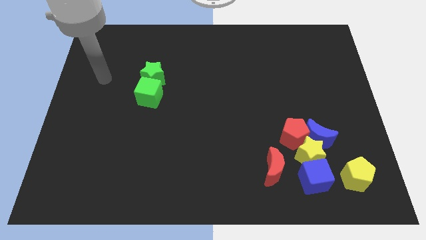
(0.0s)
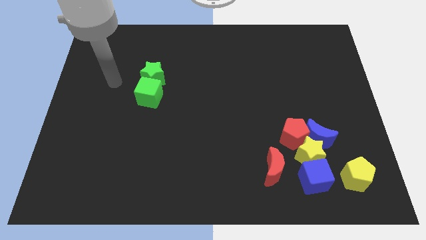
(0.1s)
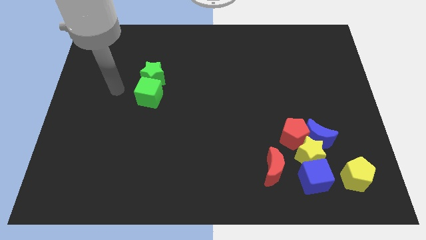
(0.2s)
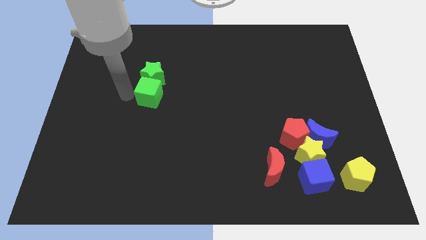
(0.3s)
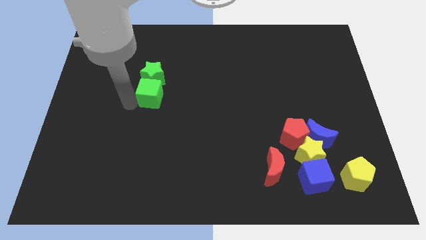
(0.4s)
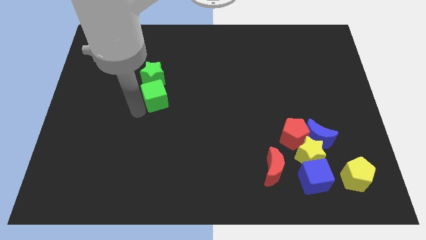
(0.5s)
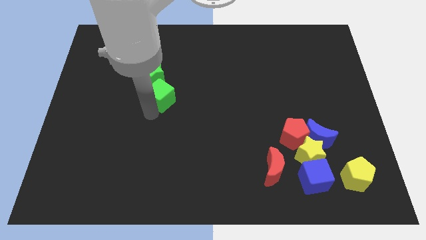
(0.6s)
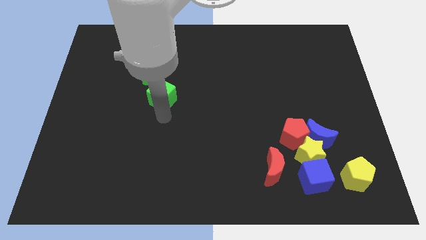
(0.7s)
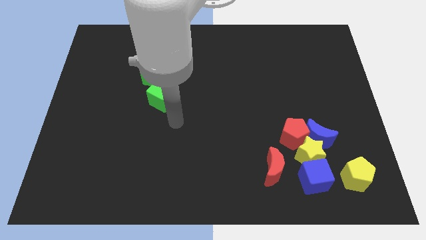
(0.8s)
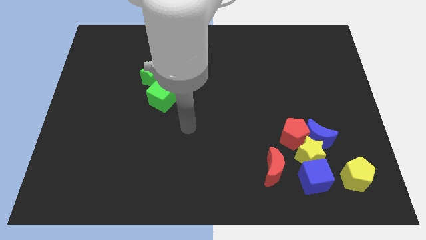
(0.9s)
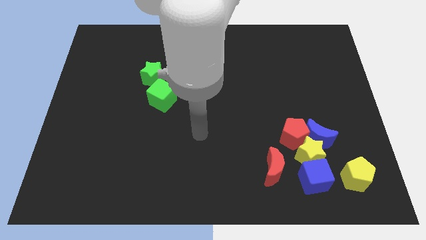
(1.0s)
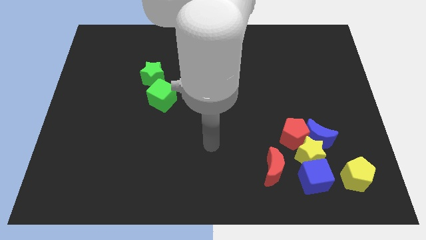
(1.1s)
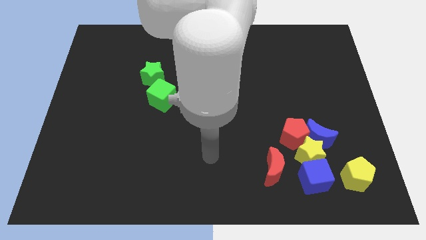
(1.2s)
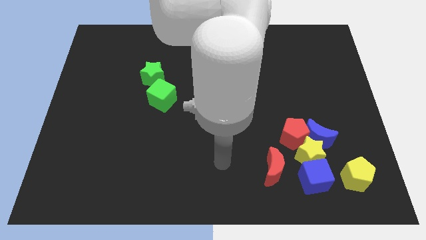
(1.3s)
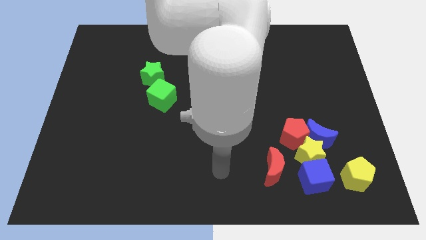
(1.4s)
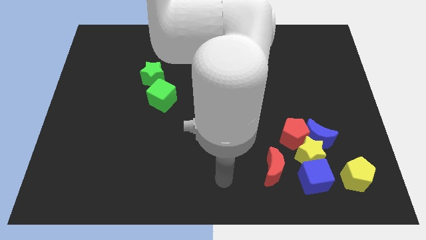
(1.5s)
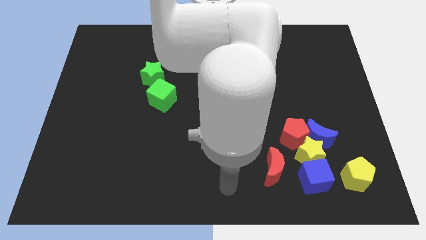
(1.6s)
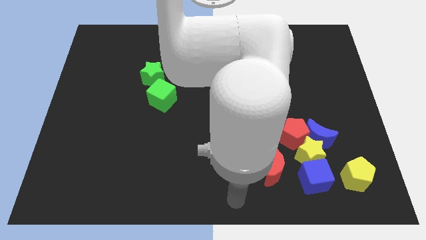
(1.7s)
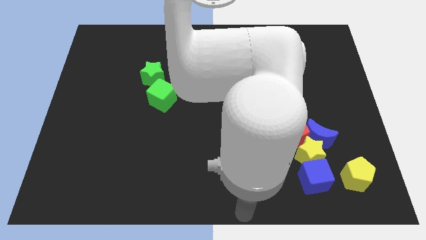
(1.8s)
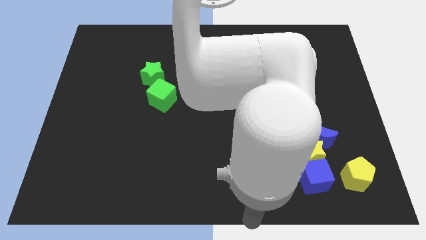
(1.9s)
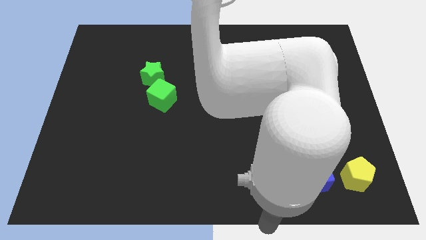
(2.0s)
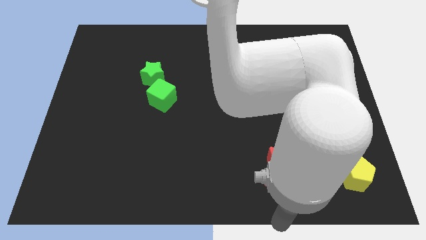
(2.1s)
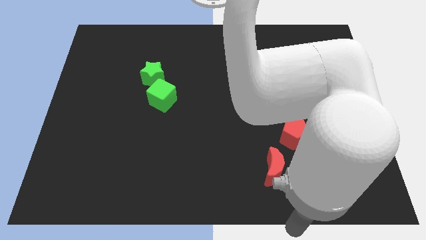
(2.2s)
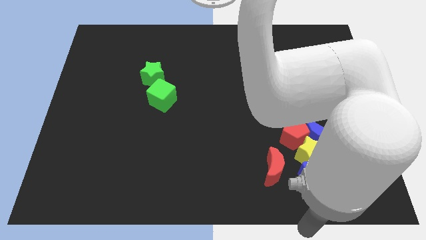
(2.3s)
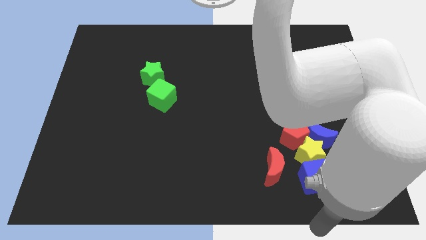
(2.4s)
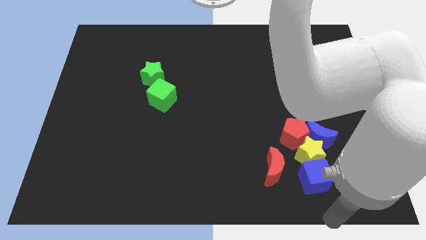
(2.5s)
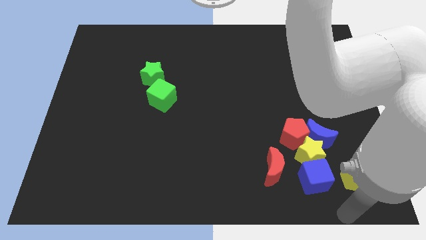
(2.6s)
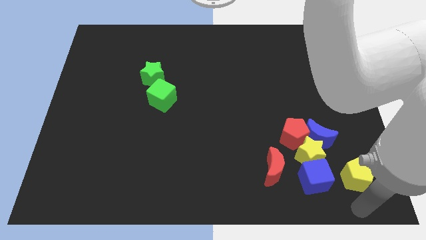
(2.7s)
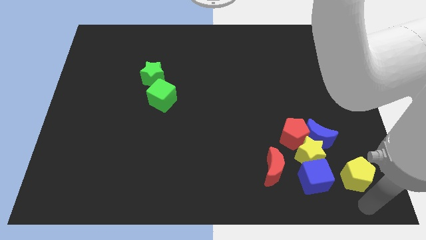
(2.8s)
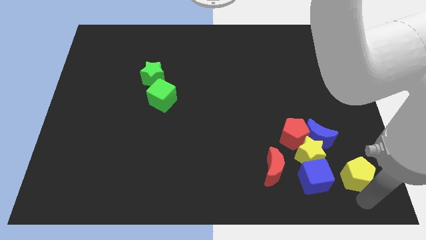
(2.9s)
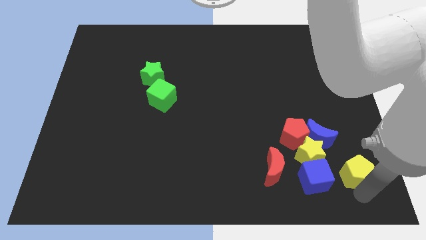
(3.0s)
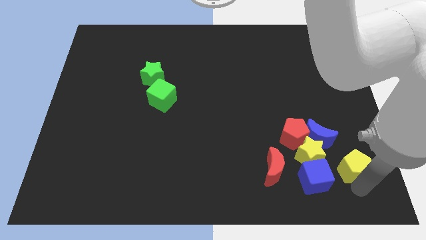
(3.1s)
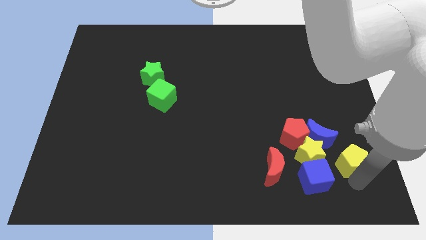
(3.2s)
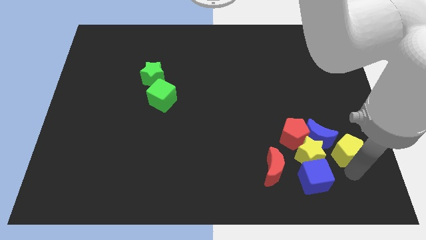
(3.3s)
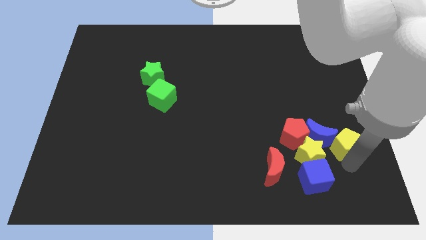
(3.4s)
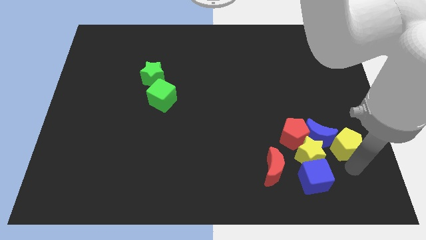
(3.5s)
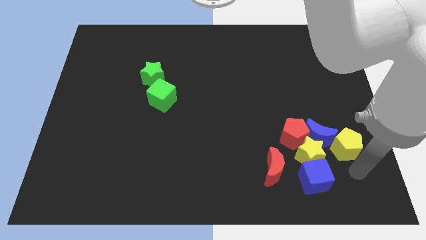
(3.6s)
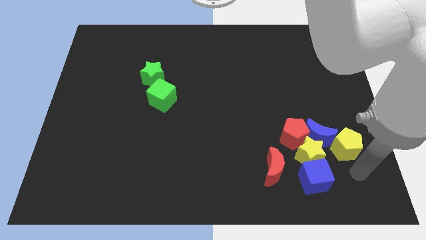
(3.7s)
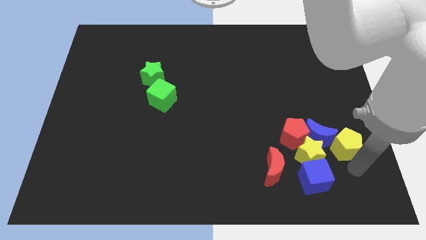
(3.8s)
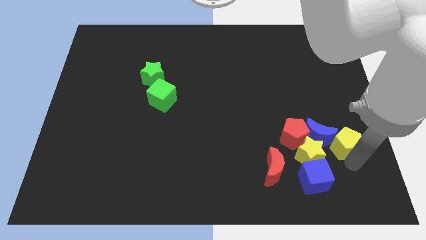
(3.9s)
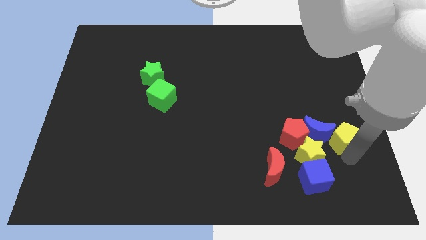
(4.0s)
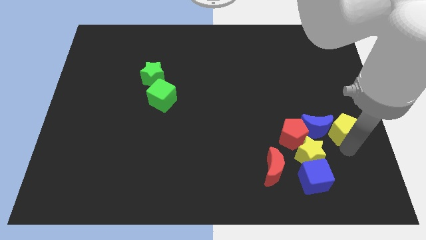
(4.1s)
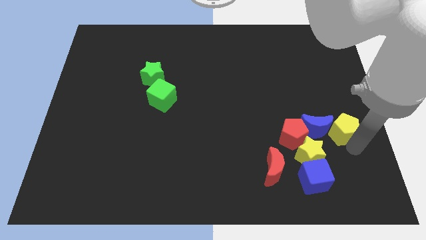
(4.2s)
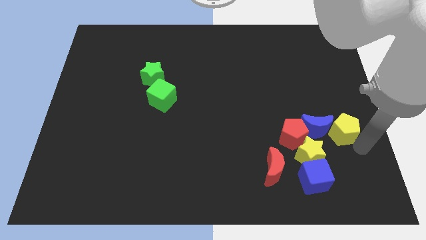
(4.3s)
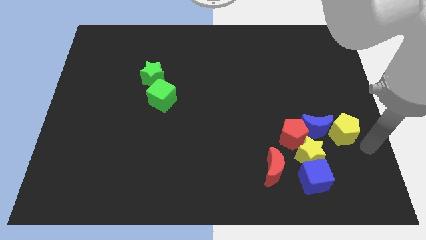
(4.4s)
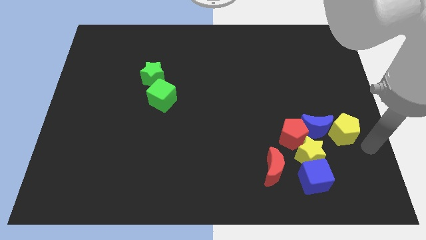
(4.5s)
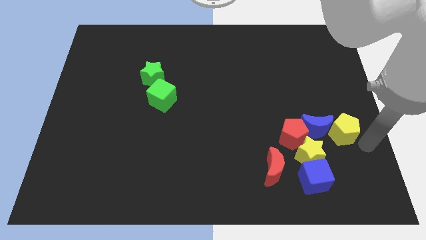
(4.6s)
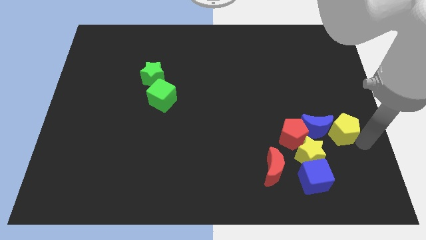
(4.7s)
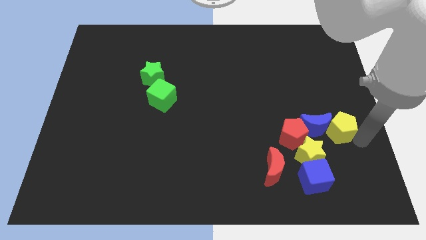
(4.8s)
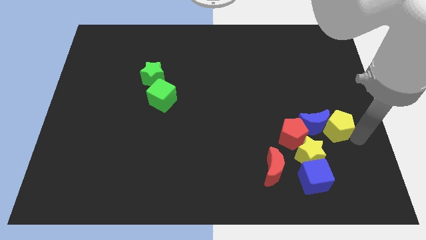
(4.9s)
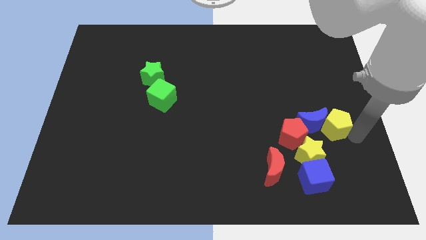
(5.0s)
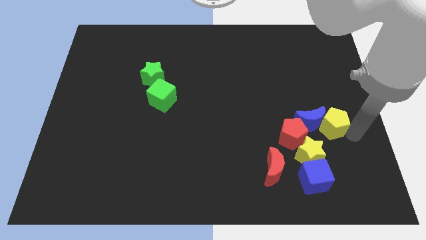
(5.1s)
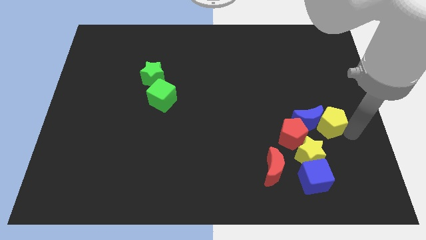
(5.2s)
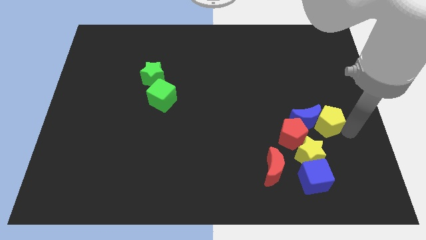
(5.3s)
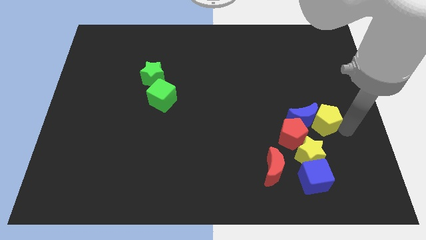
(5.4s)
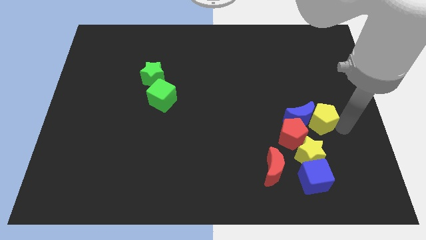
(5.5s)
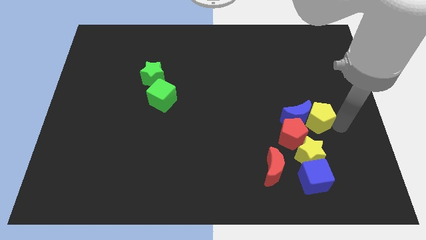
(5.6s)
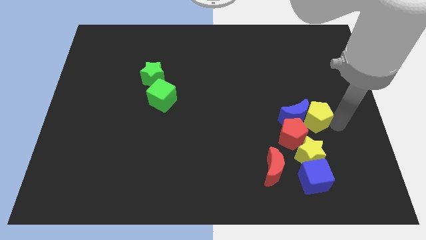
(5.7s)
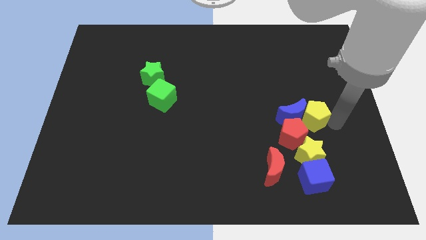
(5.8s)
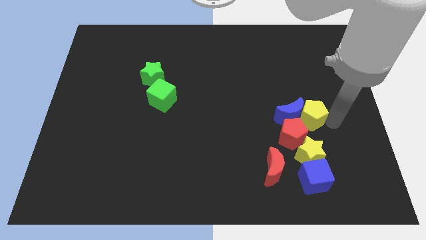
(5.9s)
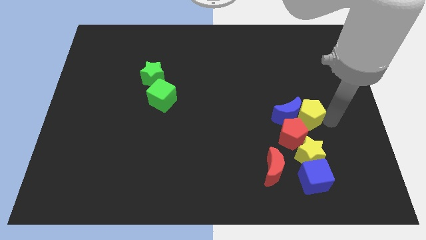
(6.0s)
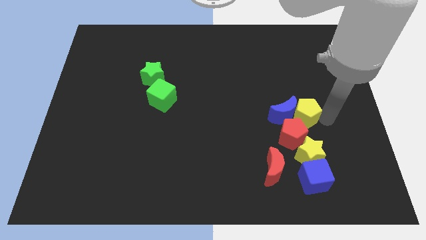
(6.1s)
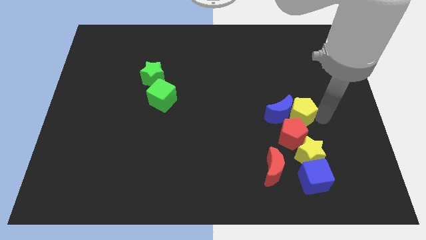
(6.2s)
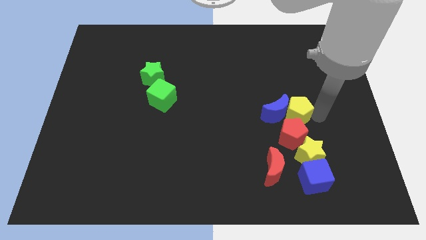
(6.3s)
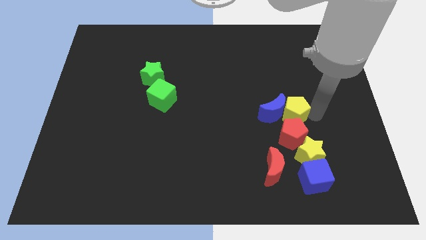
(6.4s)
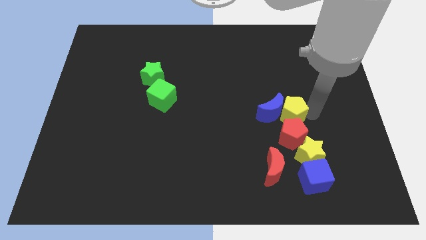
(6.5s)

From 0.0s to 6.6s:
push the yellow pentagon to the top left side of the red pentagon

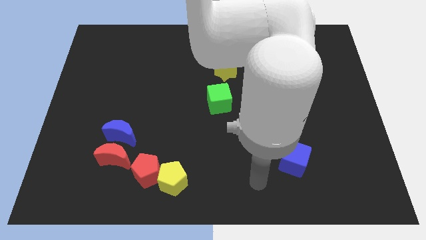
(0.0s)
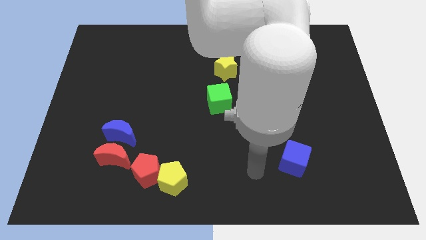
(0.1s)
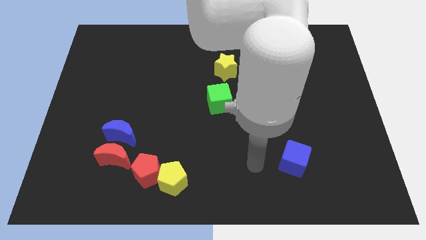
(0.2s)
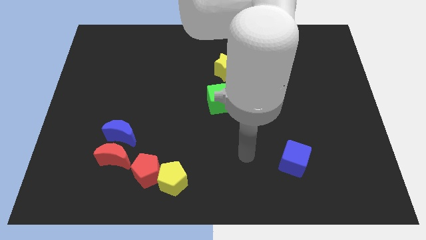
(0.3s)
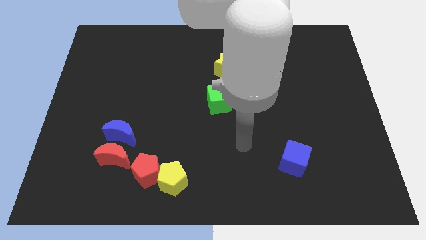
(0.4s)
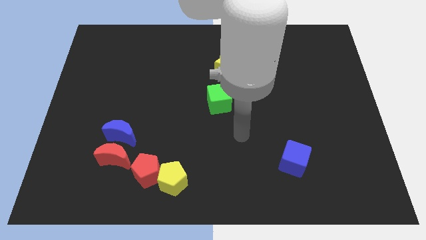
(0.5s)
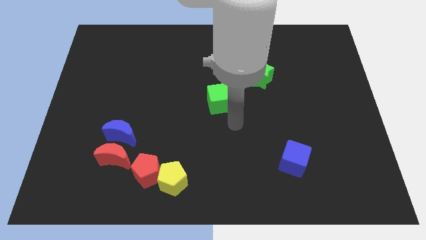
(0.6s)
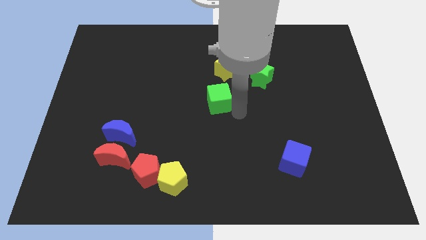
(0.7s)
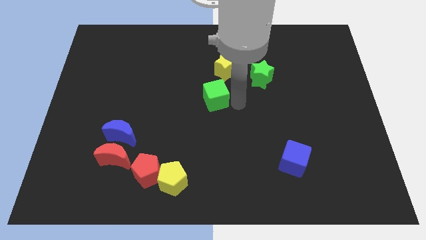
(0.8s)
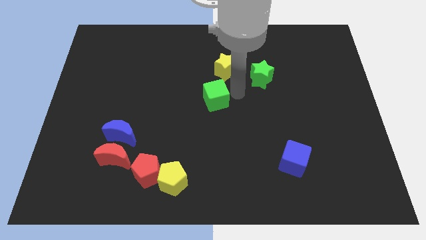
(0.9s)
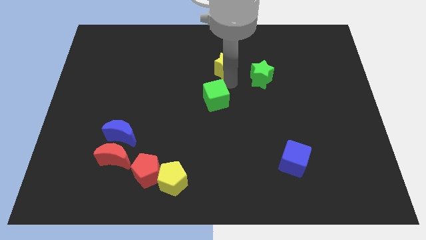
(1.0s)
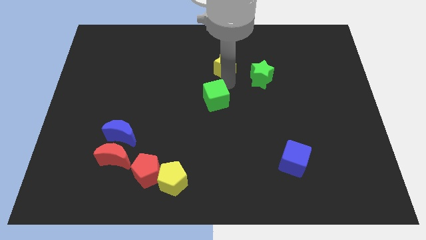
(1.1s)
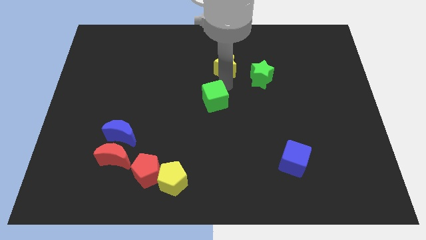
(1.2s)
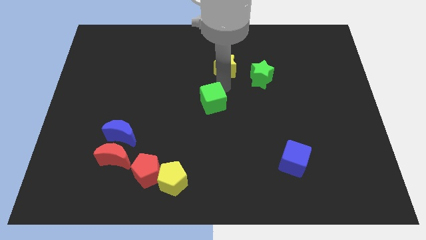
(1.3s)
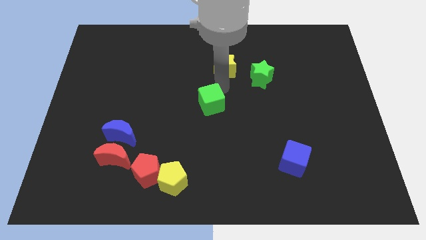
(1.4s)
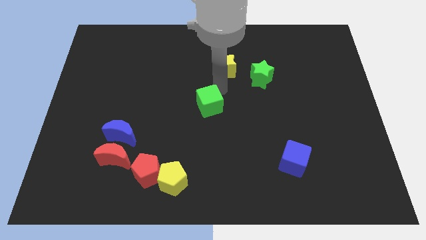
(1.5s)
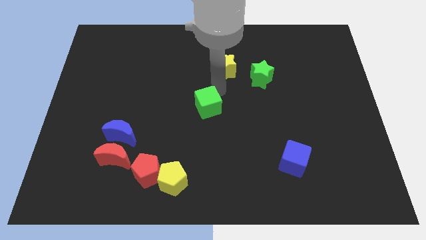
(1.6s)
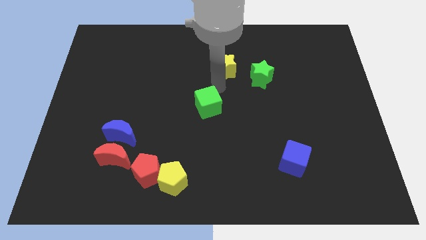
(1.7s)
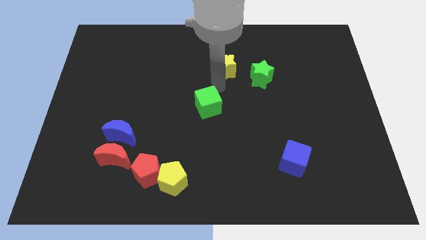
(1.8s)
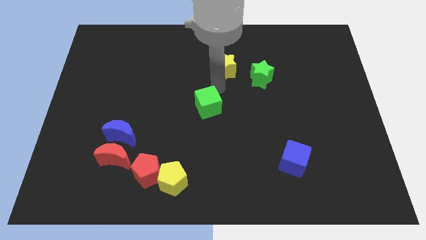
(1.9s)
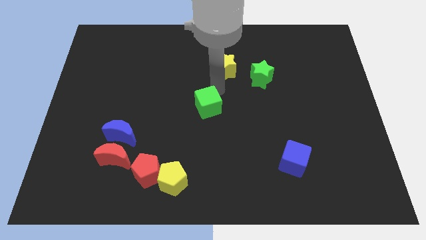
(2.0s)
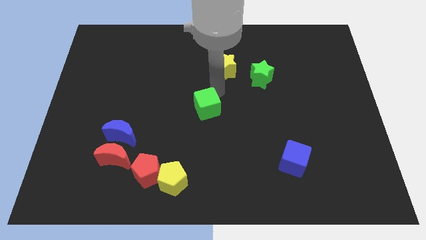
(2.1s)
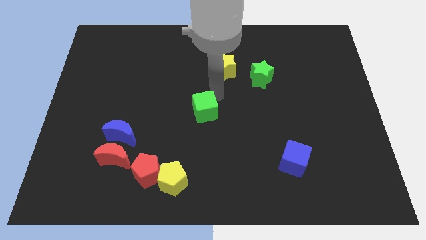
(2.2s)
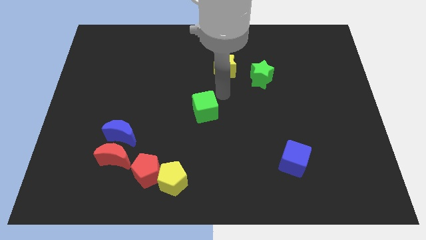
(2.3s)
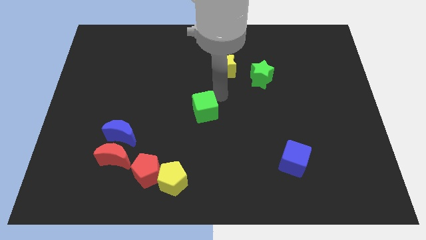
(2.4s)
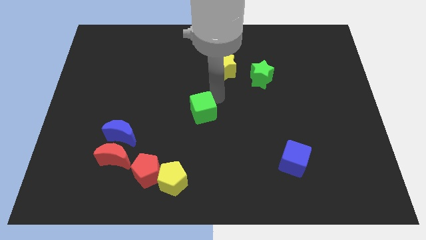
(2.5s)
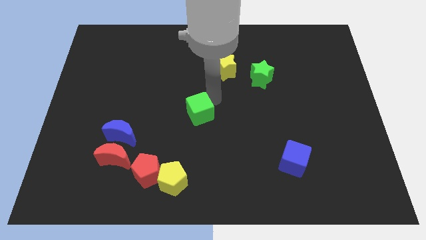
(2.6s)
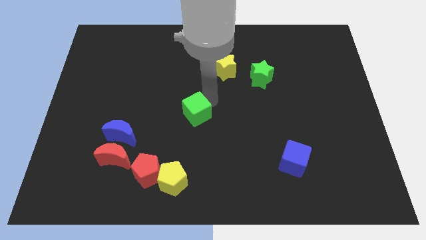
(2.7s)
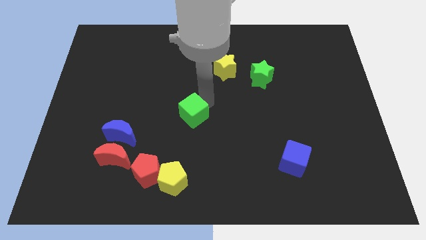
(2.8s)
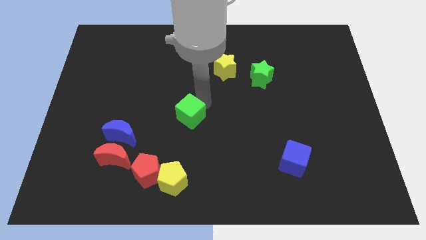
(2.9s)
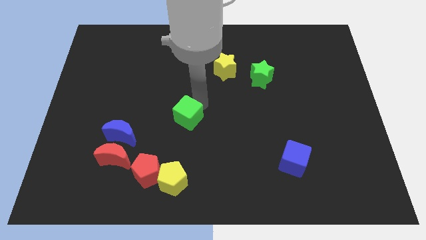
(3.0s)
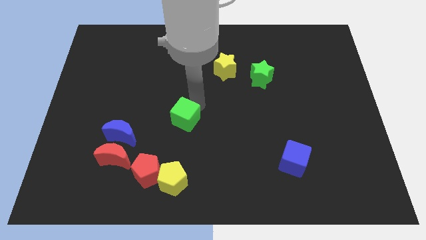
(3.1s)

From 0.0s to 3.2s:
slide the green cube to the top side of the yellow pentagon
